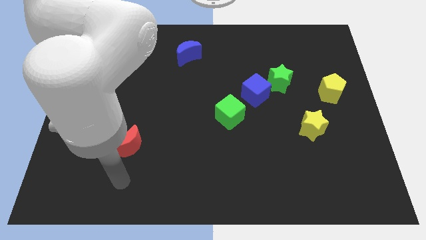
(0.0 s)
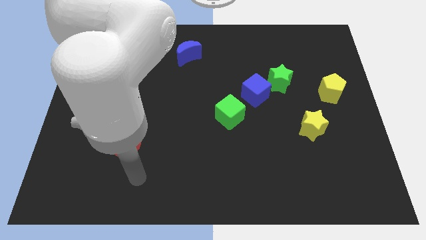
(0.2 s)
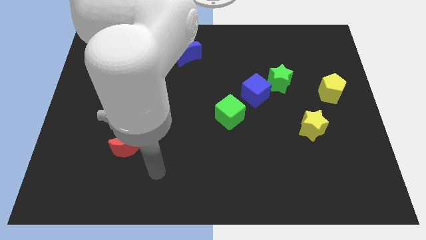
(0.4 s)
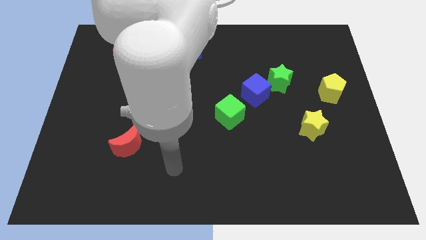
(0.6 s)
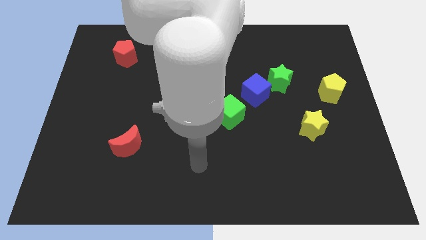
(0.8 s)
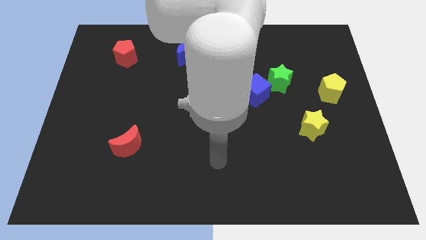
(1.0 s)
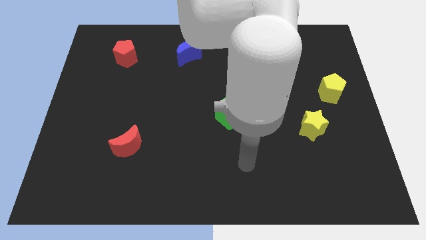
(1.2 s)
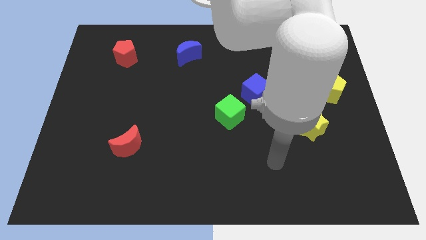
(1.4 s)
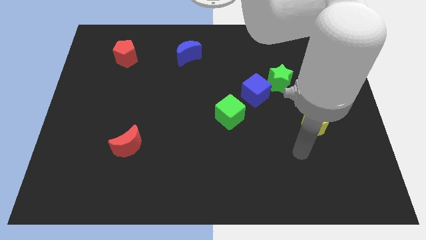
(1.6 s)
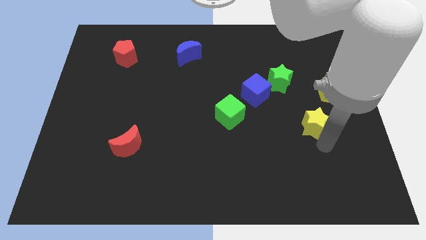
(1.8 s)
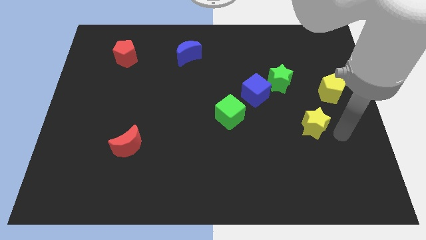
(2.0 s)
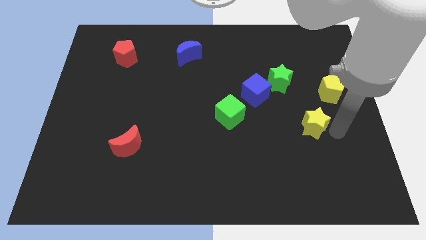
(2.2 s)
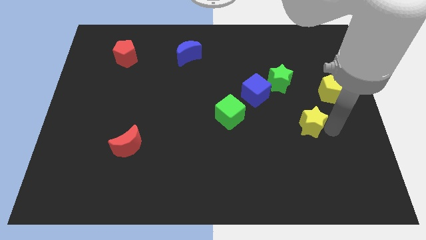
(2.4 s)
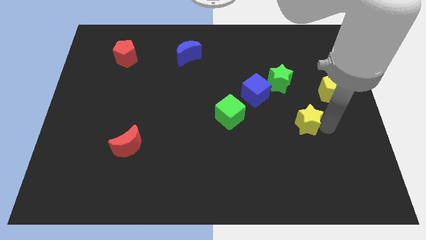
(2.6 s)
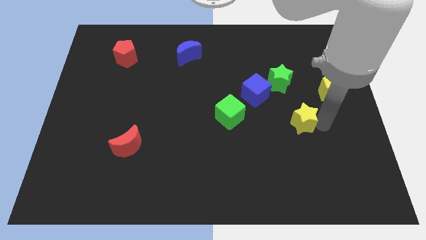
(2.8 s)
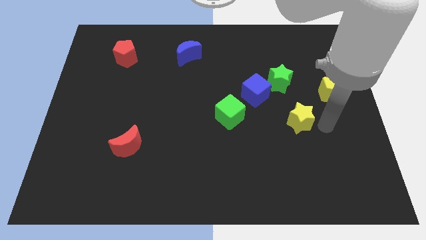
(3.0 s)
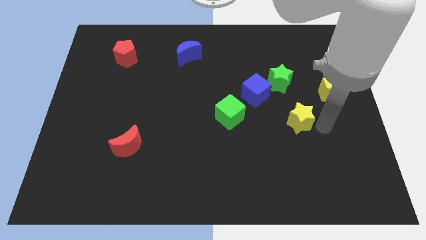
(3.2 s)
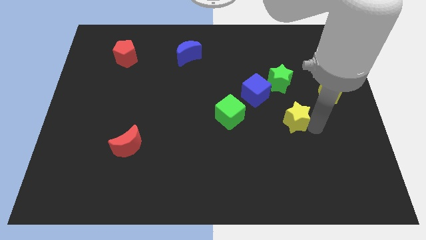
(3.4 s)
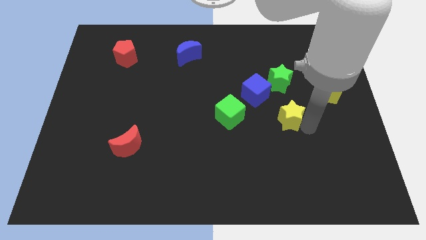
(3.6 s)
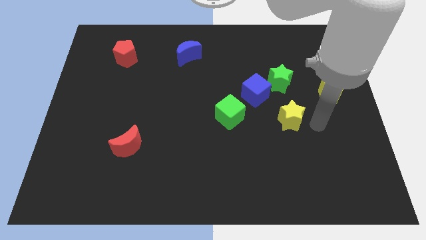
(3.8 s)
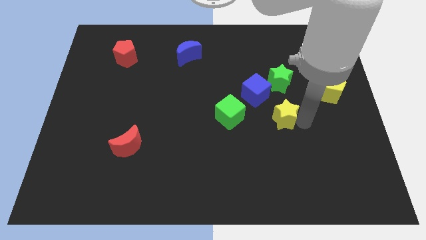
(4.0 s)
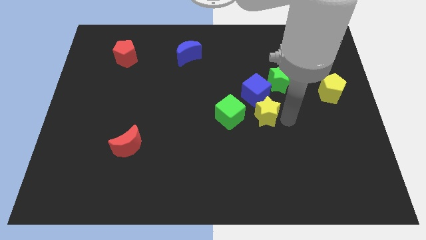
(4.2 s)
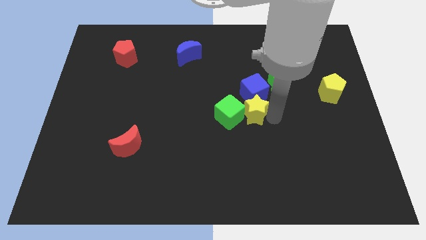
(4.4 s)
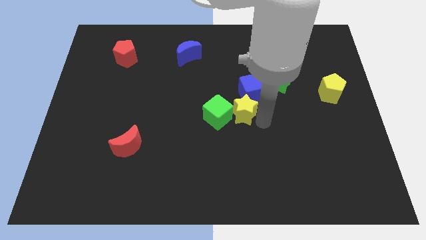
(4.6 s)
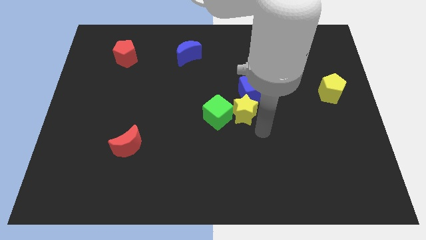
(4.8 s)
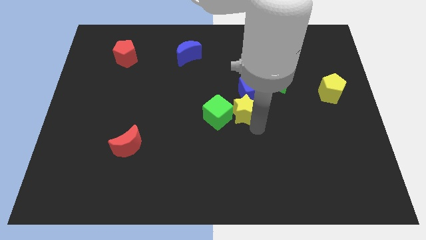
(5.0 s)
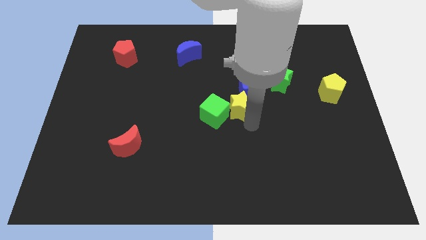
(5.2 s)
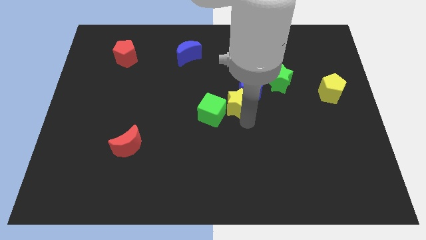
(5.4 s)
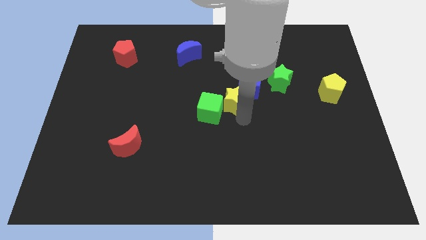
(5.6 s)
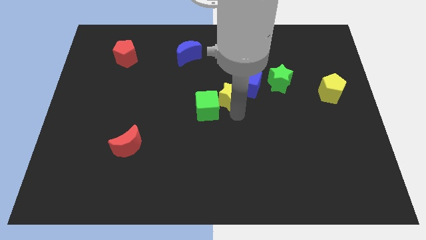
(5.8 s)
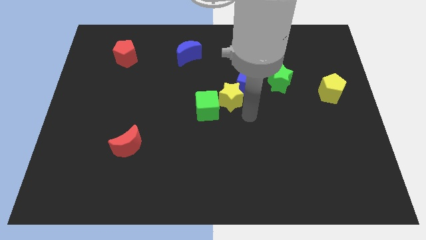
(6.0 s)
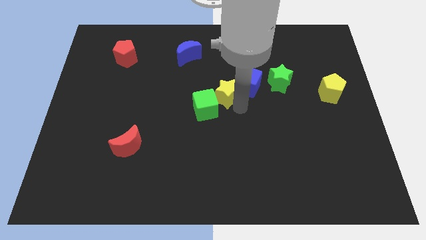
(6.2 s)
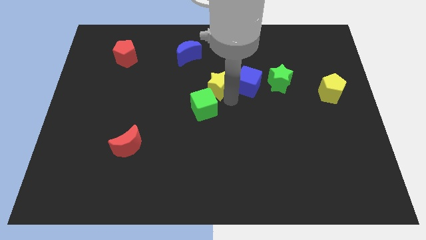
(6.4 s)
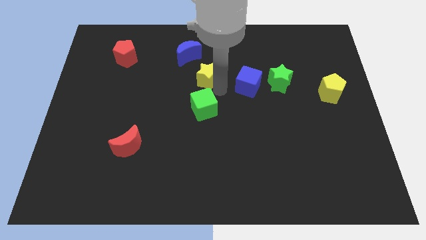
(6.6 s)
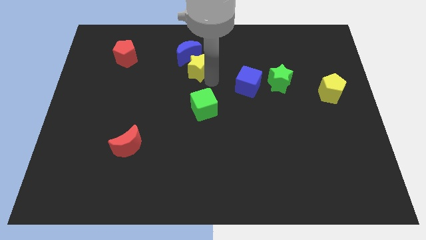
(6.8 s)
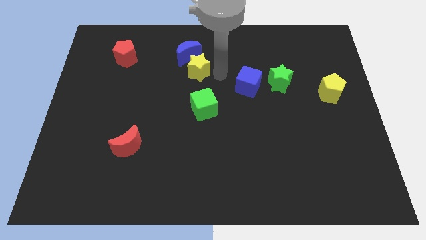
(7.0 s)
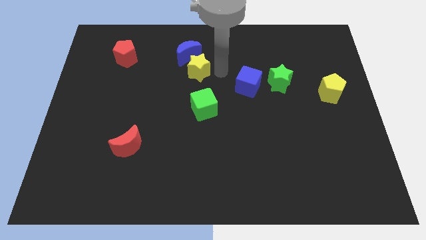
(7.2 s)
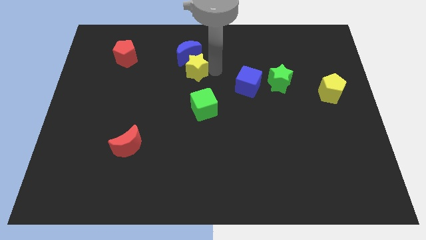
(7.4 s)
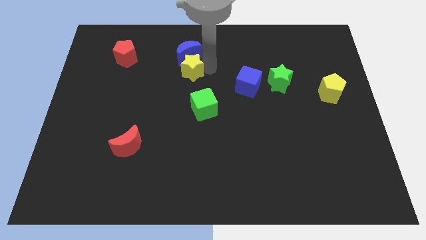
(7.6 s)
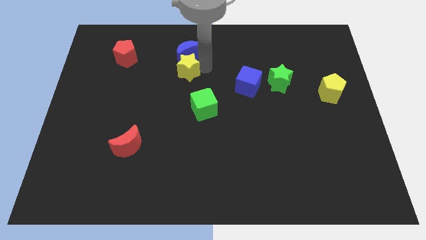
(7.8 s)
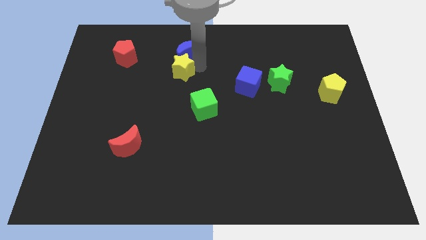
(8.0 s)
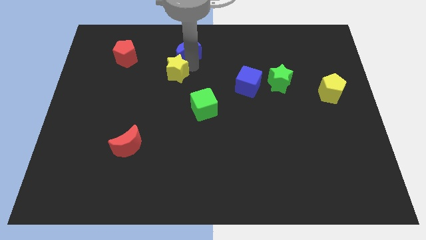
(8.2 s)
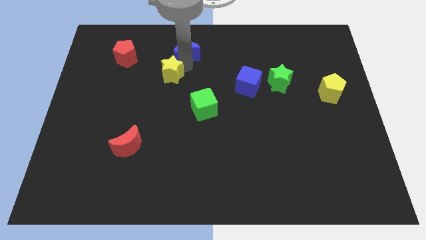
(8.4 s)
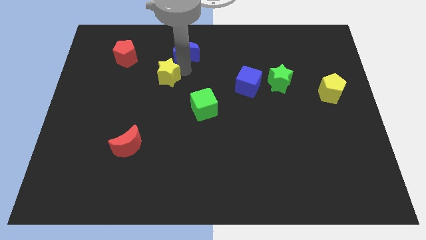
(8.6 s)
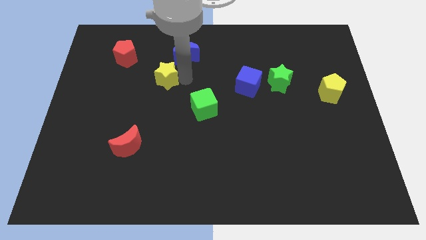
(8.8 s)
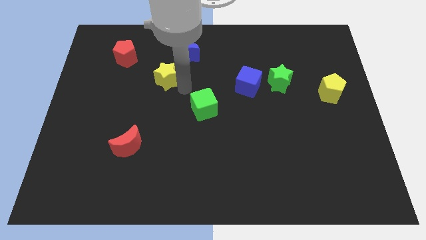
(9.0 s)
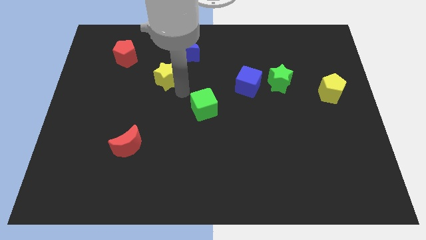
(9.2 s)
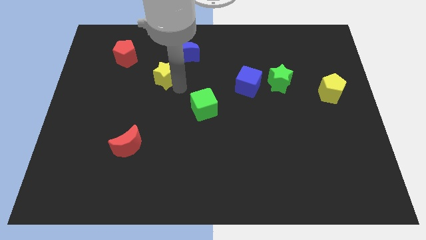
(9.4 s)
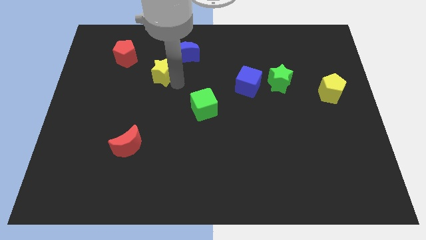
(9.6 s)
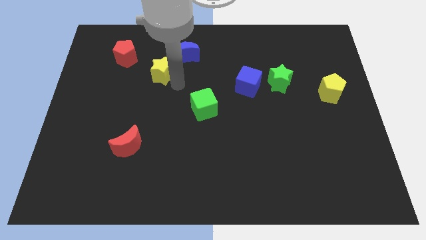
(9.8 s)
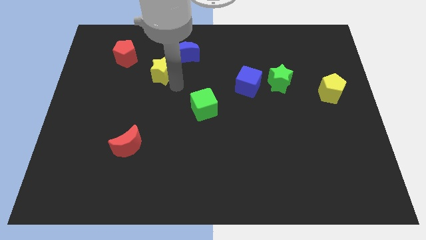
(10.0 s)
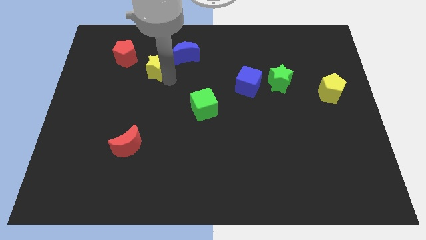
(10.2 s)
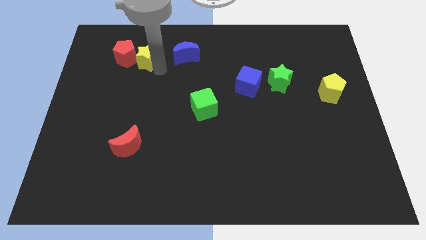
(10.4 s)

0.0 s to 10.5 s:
slide the yellow star next to the red pentagon

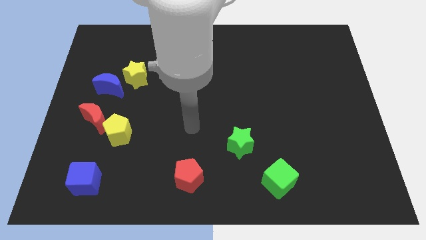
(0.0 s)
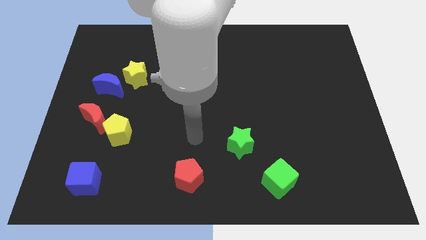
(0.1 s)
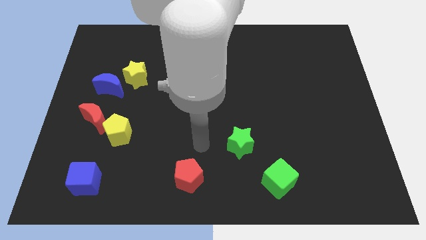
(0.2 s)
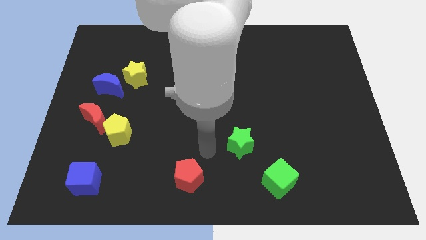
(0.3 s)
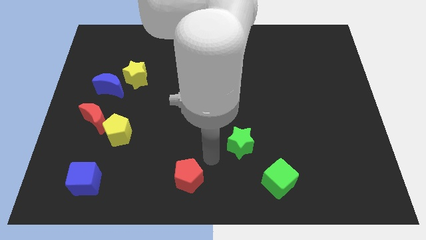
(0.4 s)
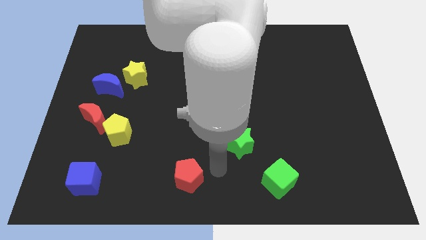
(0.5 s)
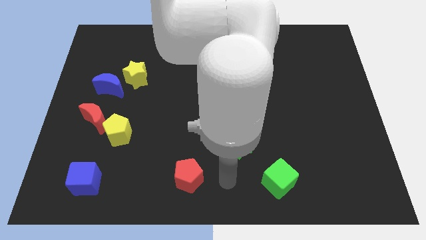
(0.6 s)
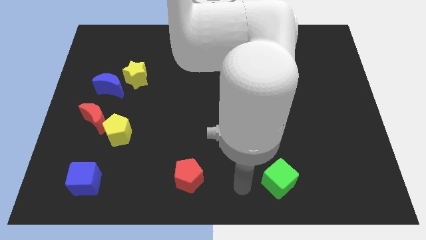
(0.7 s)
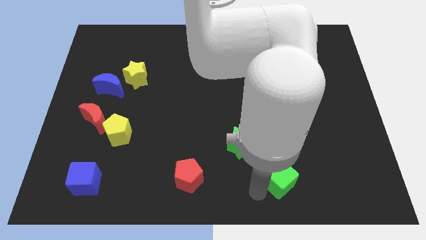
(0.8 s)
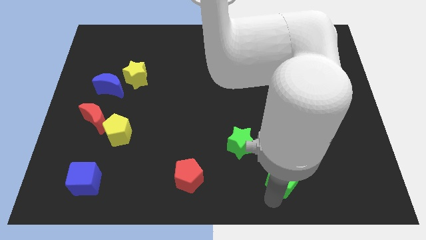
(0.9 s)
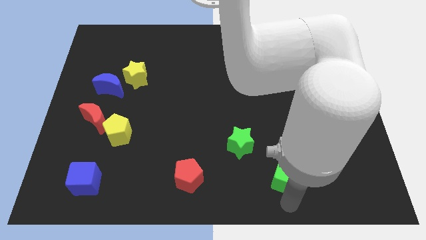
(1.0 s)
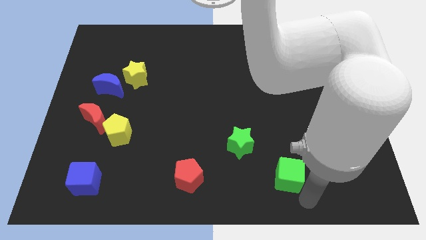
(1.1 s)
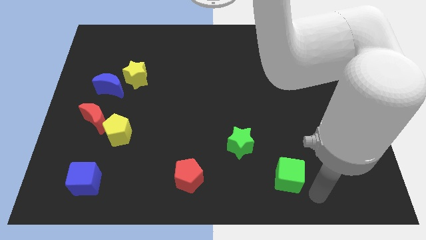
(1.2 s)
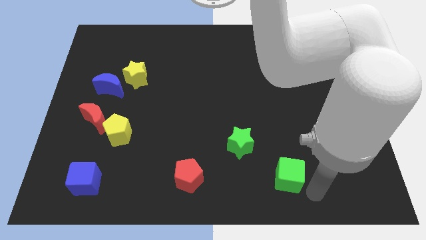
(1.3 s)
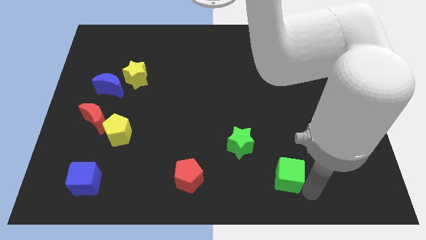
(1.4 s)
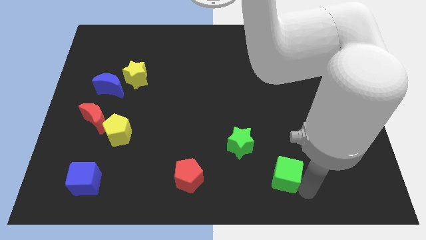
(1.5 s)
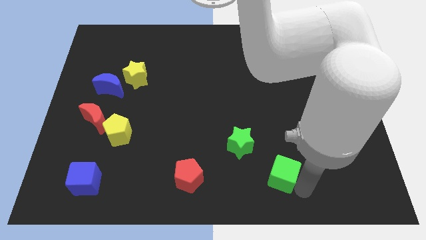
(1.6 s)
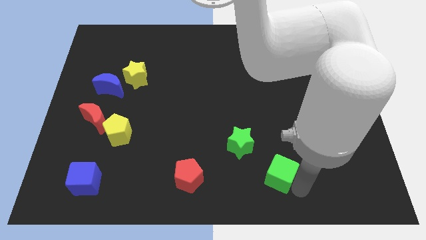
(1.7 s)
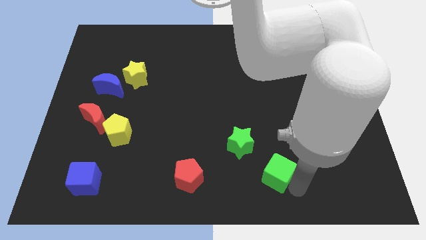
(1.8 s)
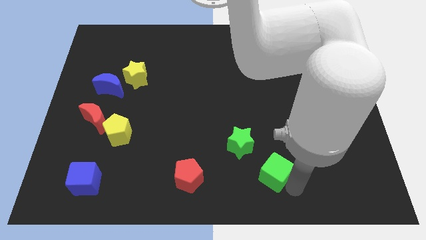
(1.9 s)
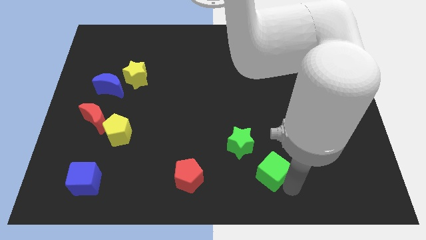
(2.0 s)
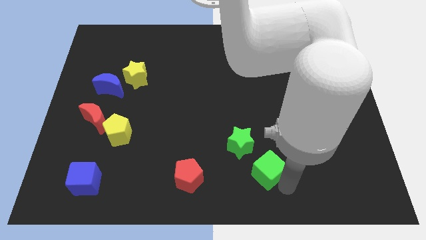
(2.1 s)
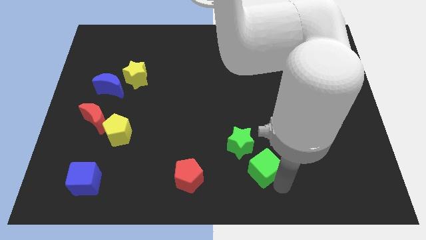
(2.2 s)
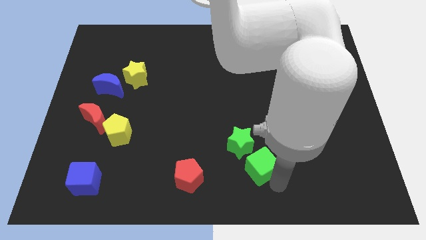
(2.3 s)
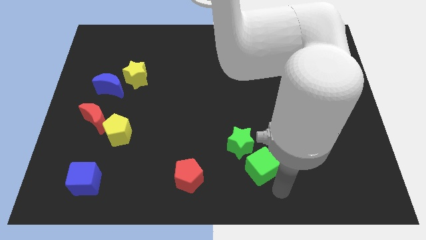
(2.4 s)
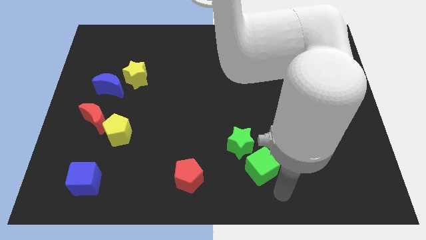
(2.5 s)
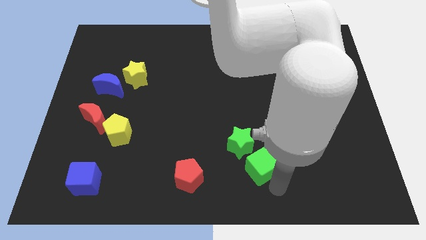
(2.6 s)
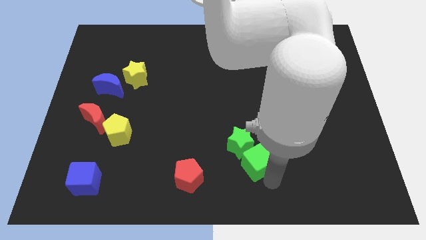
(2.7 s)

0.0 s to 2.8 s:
slide the green cube to the green star
